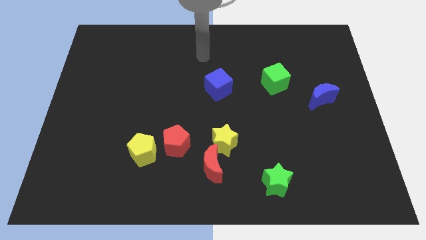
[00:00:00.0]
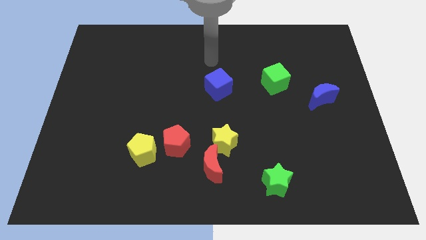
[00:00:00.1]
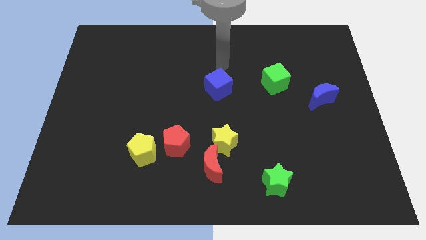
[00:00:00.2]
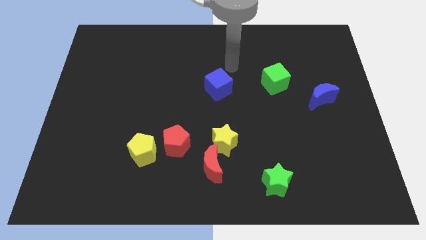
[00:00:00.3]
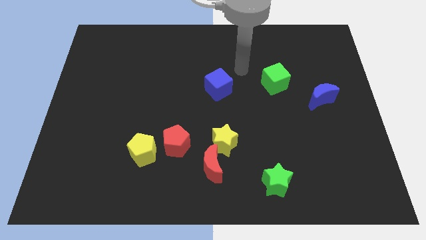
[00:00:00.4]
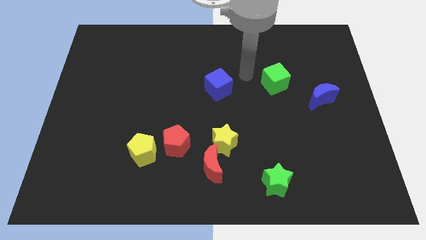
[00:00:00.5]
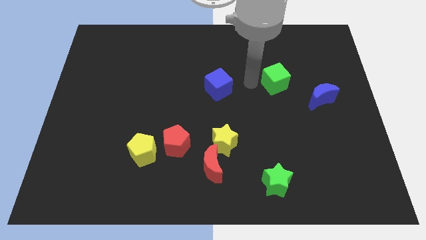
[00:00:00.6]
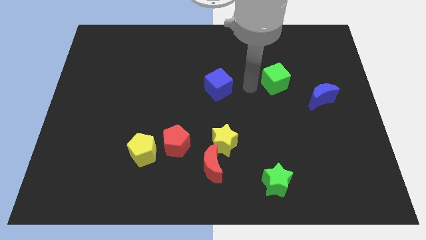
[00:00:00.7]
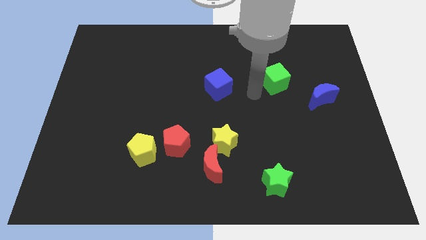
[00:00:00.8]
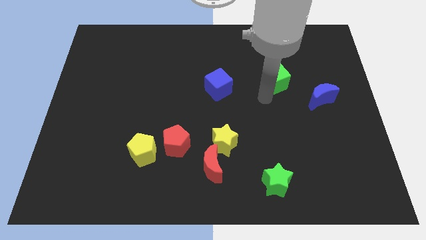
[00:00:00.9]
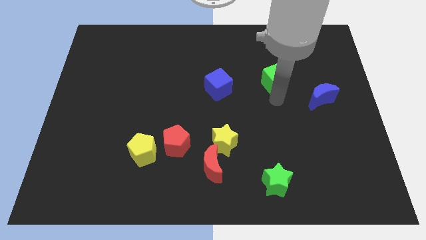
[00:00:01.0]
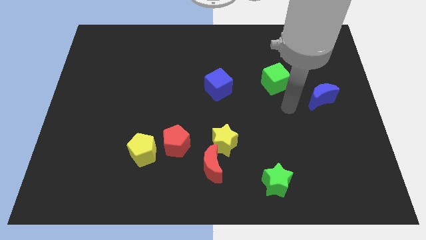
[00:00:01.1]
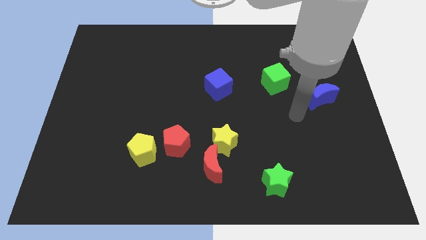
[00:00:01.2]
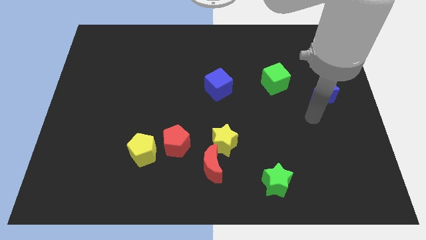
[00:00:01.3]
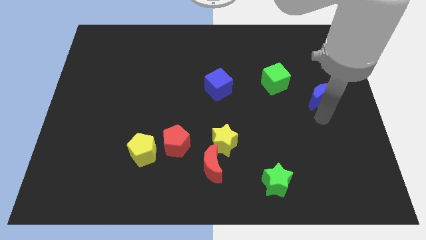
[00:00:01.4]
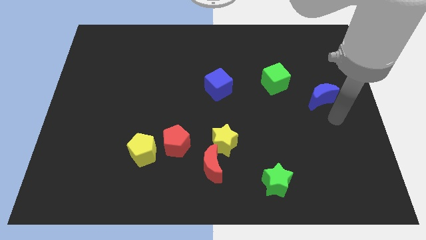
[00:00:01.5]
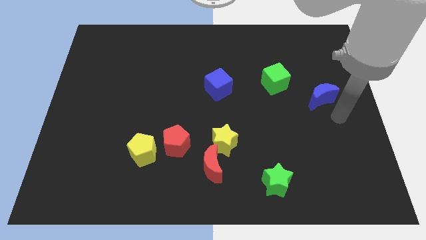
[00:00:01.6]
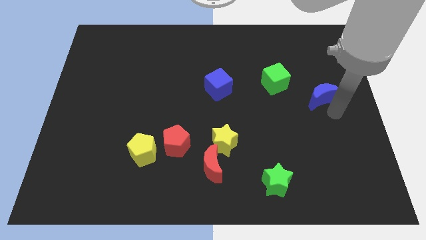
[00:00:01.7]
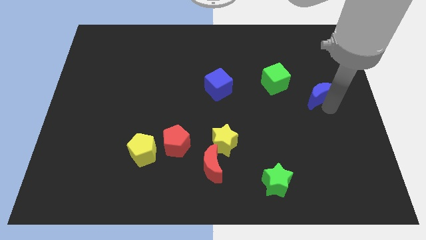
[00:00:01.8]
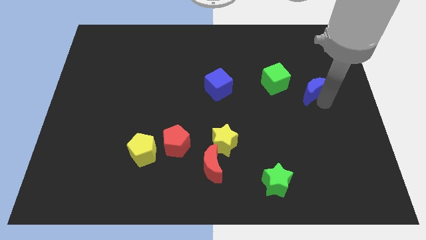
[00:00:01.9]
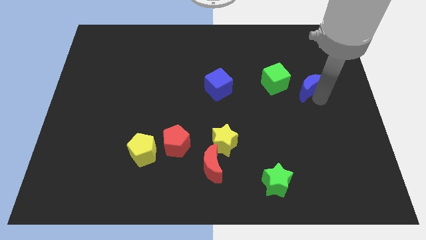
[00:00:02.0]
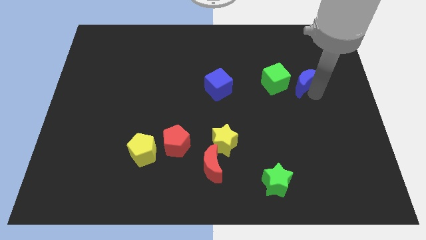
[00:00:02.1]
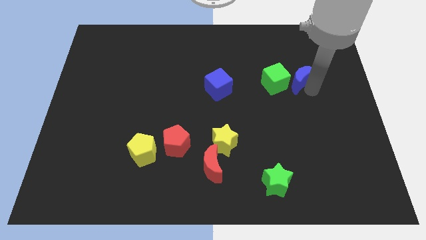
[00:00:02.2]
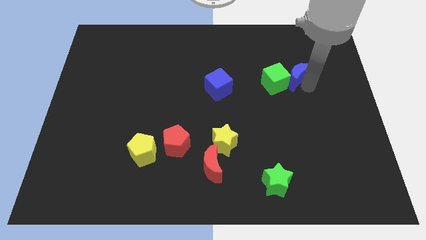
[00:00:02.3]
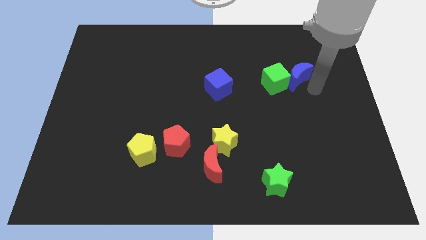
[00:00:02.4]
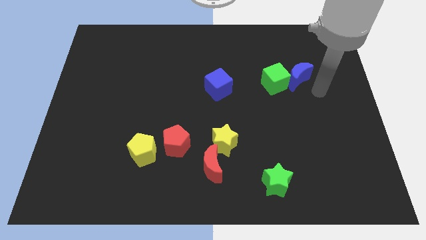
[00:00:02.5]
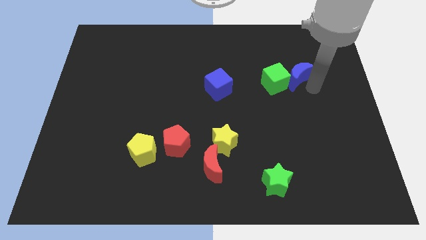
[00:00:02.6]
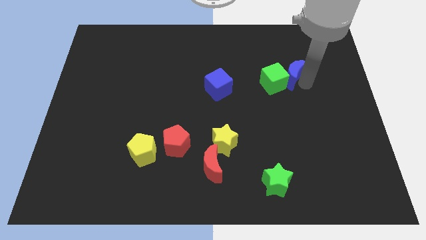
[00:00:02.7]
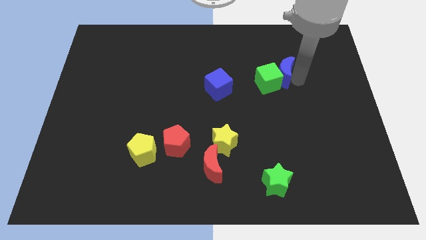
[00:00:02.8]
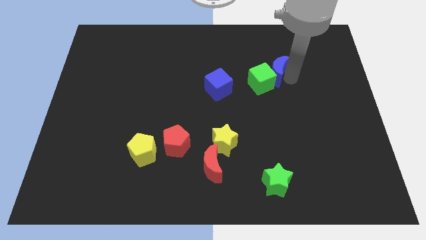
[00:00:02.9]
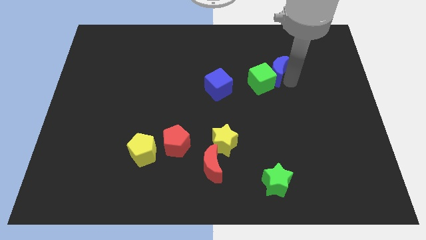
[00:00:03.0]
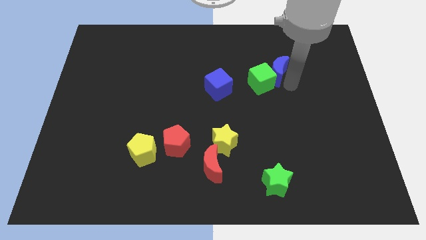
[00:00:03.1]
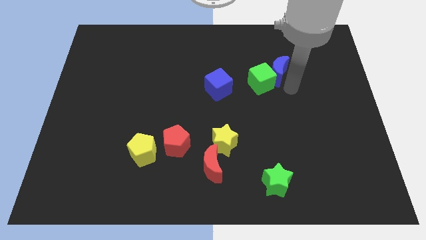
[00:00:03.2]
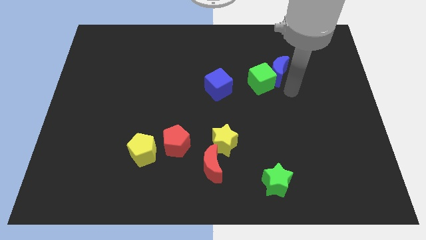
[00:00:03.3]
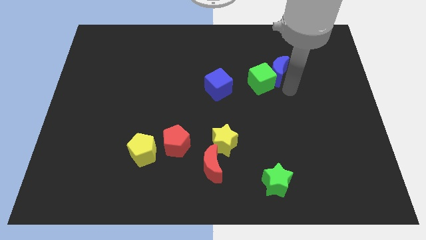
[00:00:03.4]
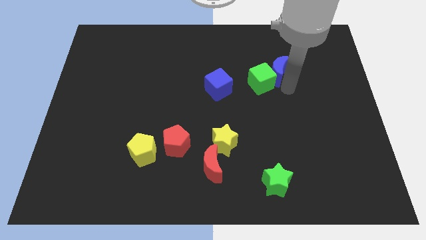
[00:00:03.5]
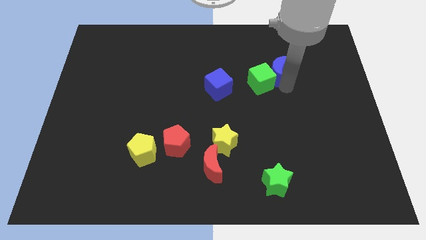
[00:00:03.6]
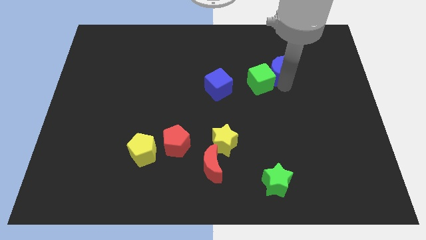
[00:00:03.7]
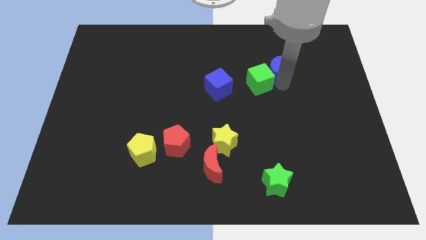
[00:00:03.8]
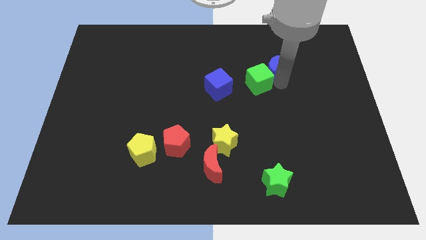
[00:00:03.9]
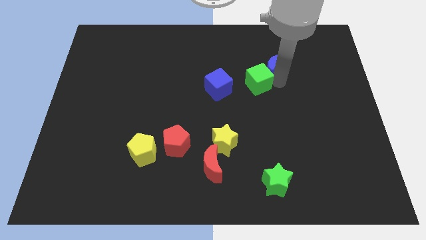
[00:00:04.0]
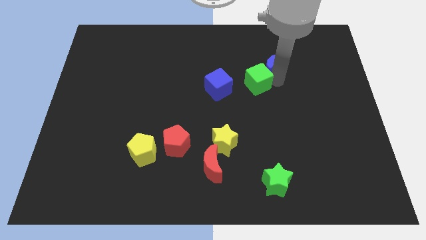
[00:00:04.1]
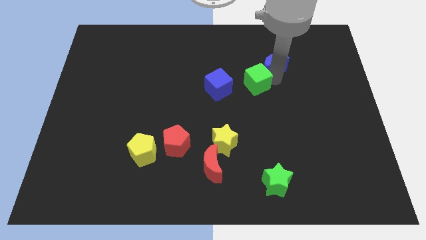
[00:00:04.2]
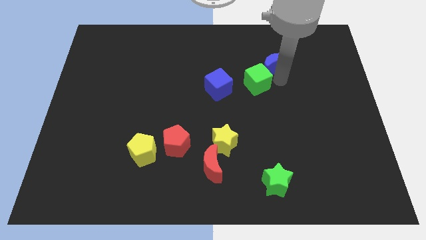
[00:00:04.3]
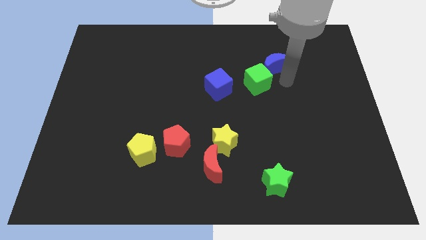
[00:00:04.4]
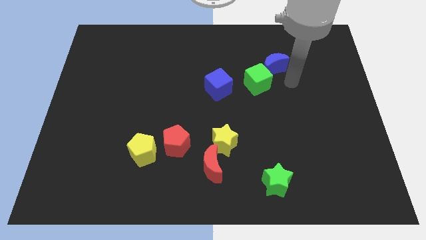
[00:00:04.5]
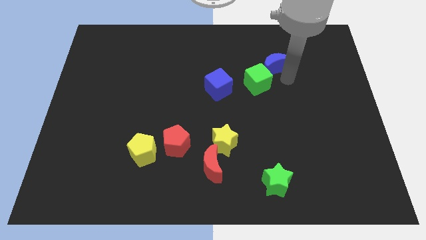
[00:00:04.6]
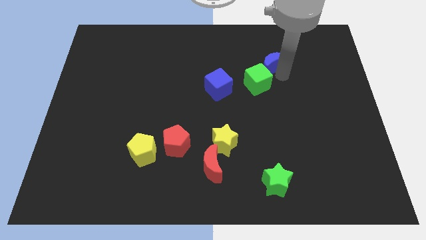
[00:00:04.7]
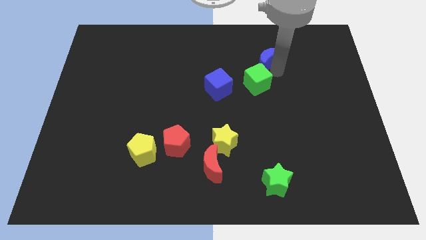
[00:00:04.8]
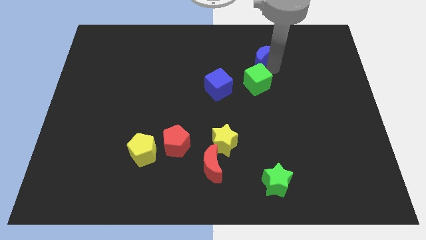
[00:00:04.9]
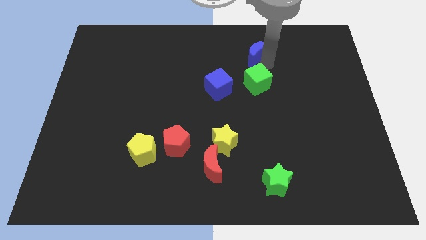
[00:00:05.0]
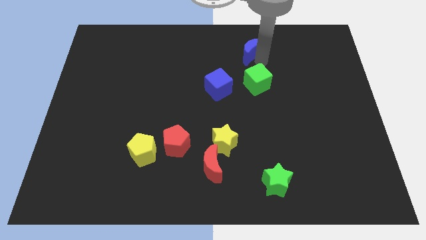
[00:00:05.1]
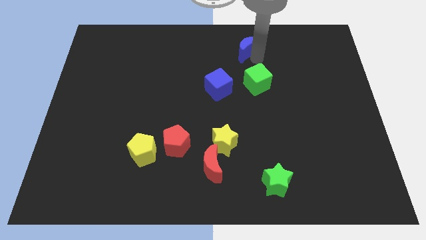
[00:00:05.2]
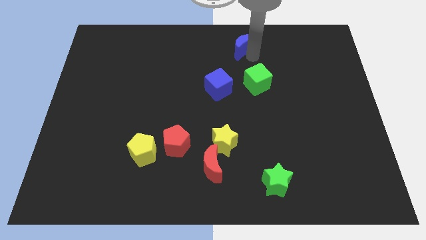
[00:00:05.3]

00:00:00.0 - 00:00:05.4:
move the blue moon to the towards your base
